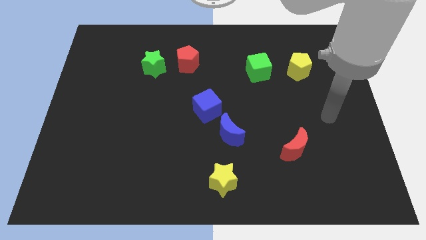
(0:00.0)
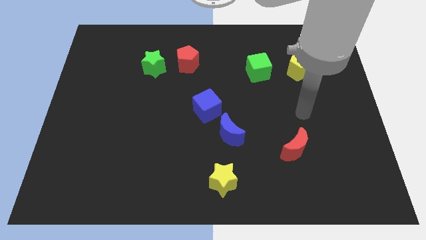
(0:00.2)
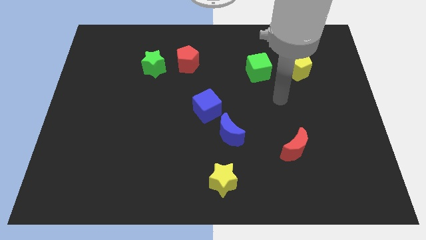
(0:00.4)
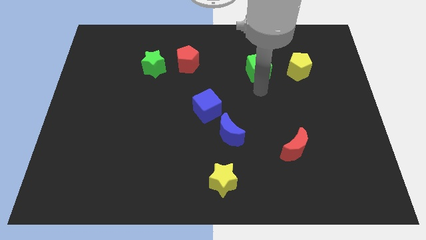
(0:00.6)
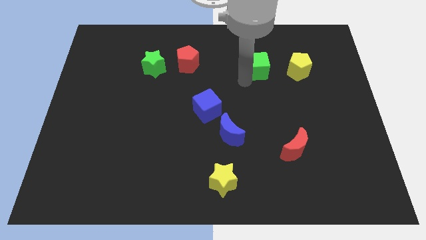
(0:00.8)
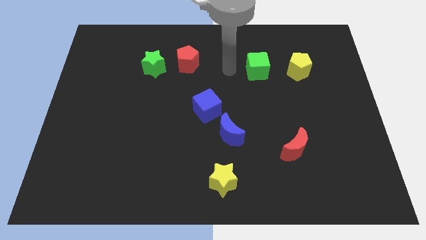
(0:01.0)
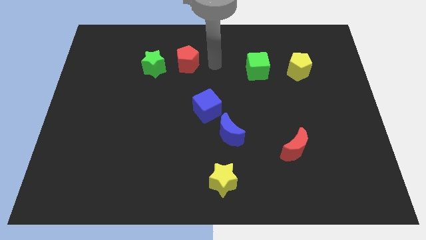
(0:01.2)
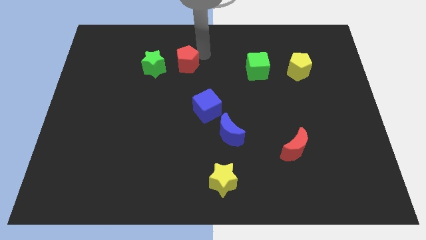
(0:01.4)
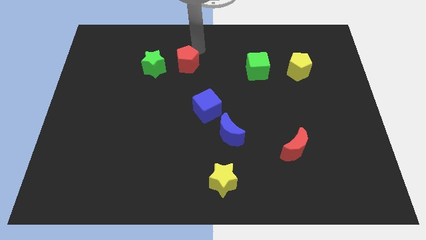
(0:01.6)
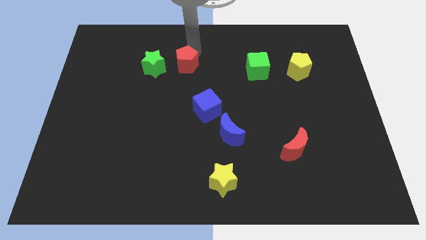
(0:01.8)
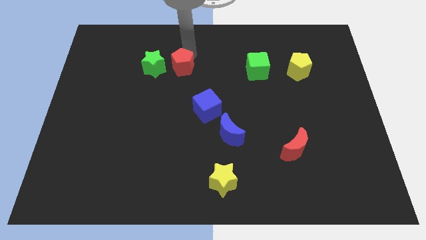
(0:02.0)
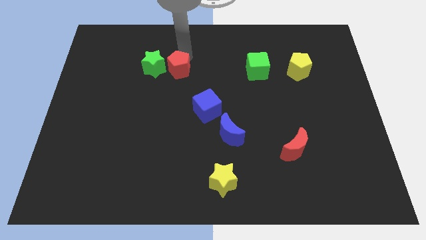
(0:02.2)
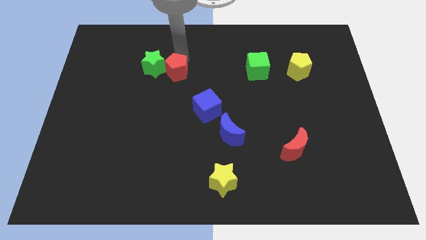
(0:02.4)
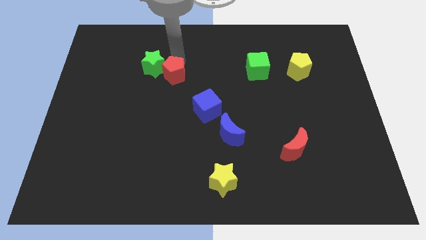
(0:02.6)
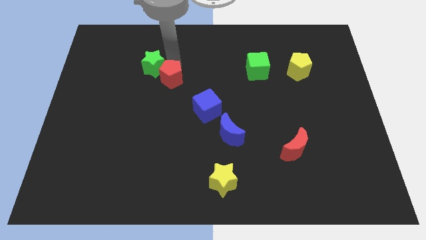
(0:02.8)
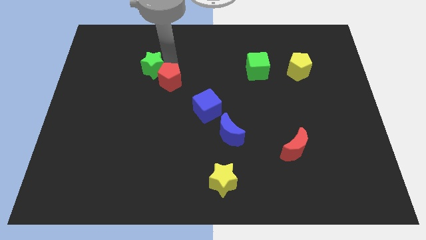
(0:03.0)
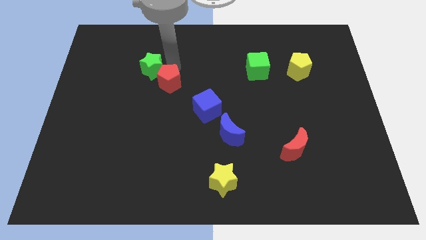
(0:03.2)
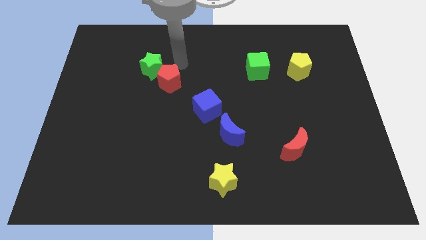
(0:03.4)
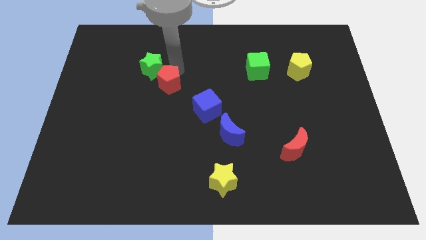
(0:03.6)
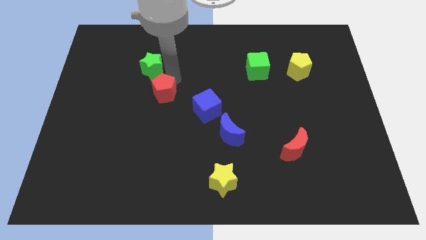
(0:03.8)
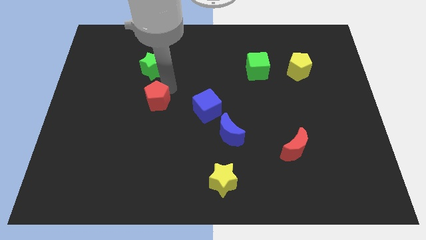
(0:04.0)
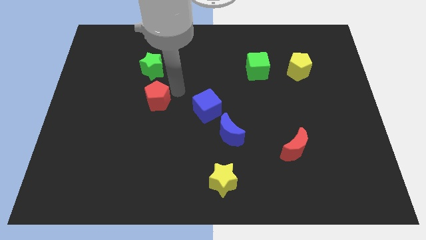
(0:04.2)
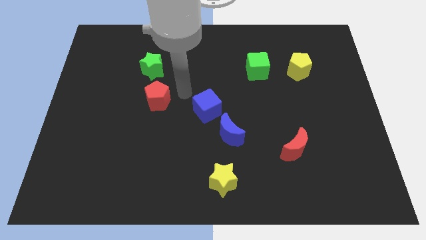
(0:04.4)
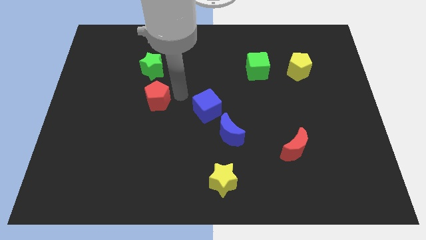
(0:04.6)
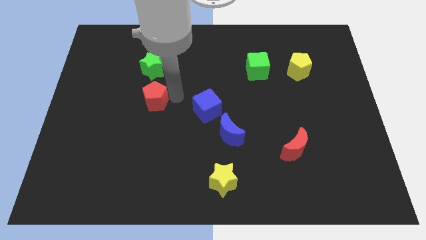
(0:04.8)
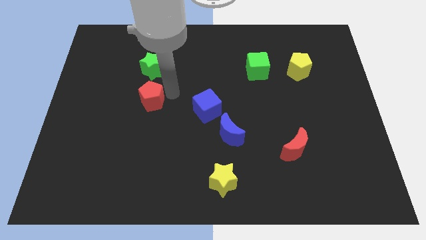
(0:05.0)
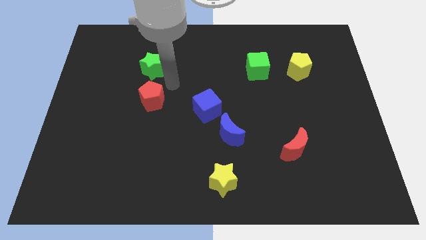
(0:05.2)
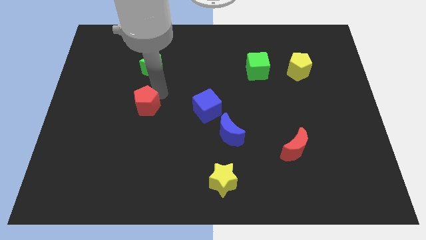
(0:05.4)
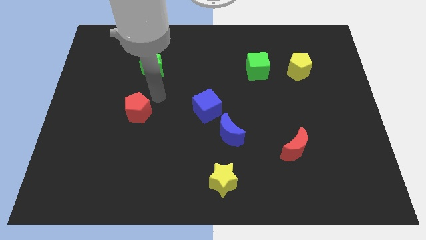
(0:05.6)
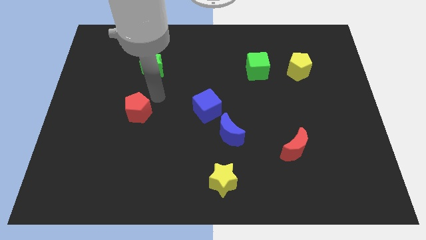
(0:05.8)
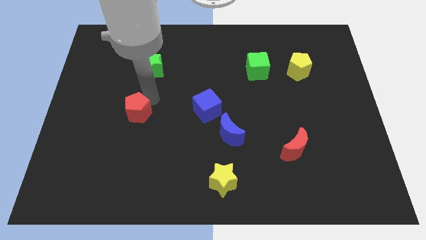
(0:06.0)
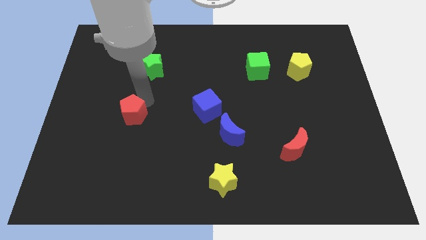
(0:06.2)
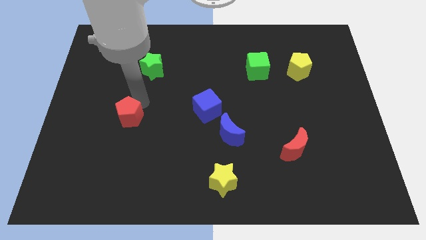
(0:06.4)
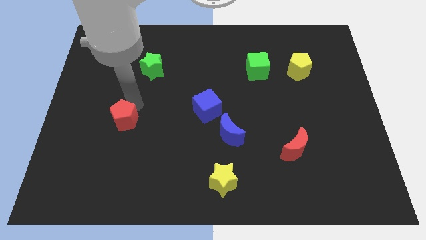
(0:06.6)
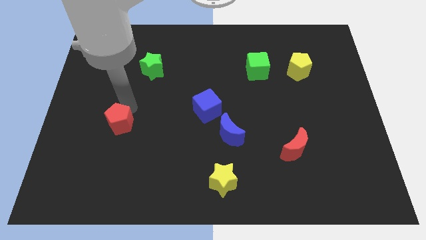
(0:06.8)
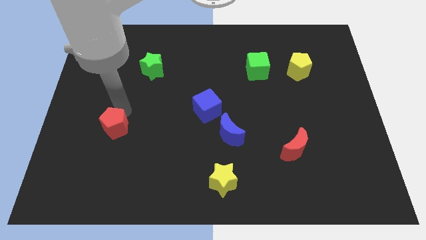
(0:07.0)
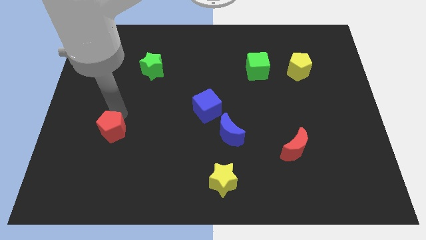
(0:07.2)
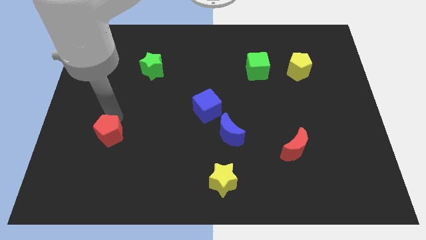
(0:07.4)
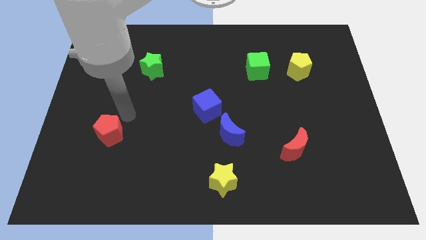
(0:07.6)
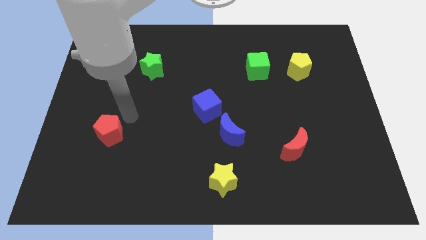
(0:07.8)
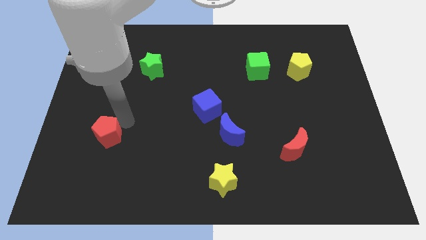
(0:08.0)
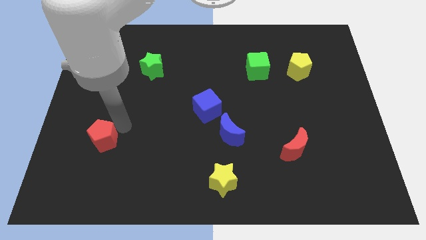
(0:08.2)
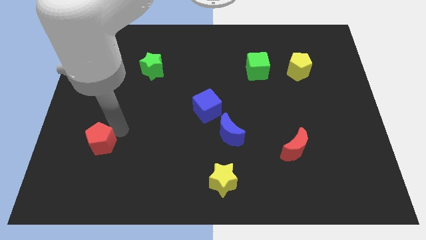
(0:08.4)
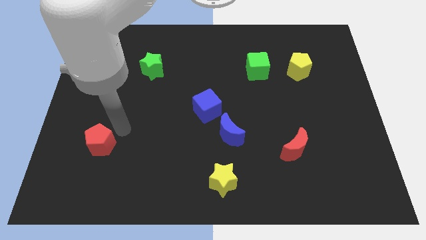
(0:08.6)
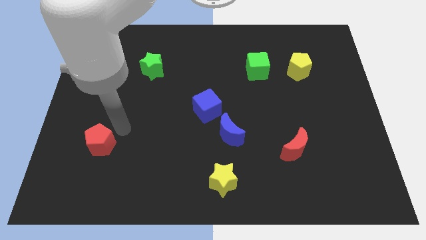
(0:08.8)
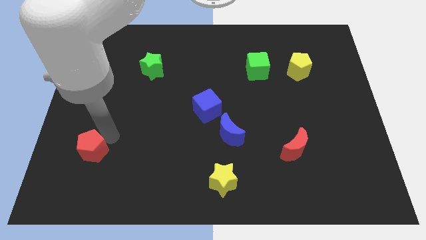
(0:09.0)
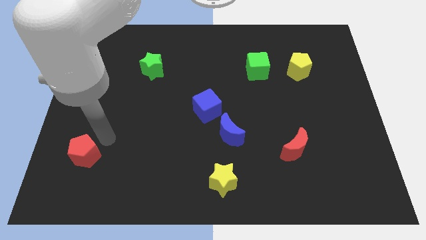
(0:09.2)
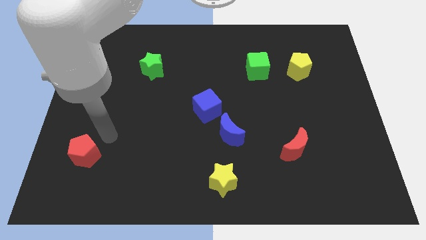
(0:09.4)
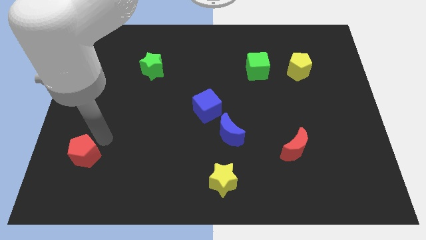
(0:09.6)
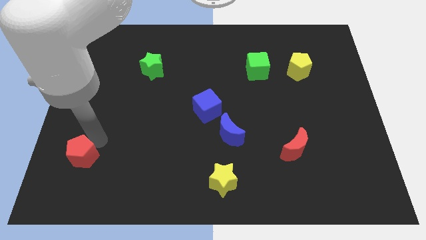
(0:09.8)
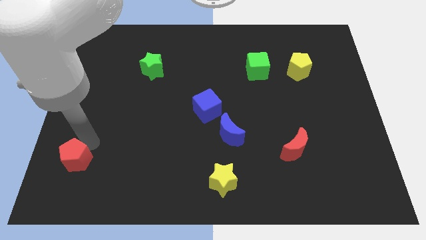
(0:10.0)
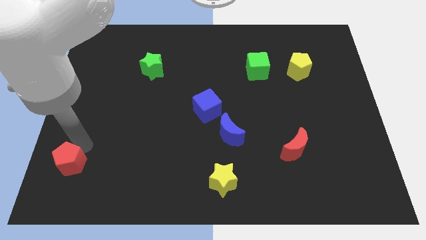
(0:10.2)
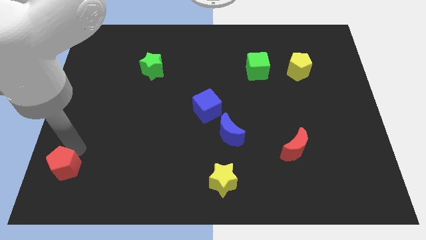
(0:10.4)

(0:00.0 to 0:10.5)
push the red pentagon to the bottom left

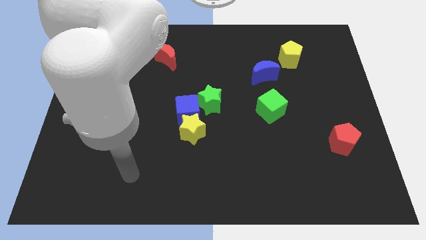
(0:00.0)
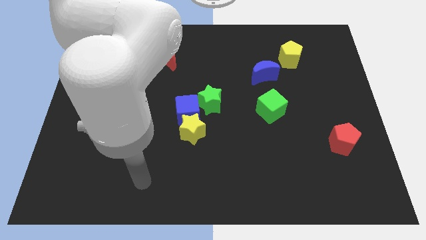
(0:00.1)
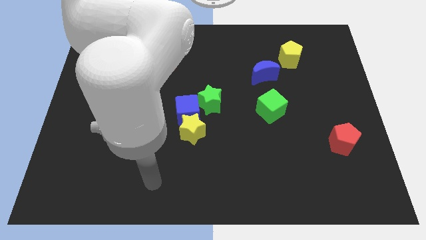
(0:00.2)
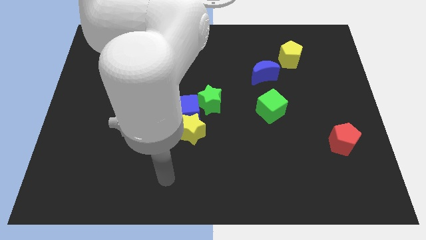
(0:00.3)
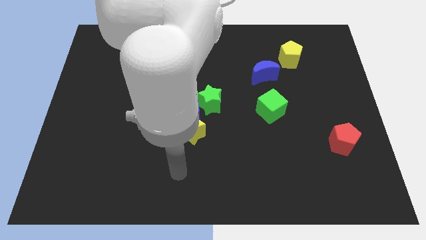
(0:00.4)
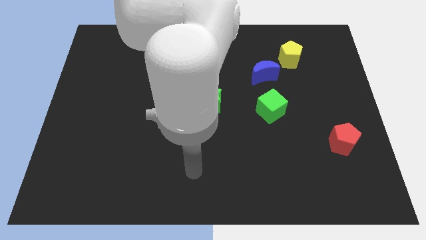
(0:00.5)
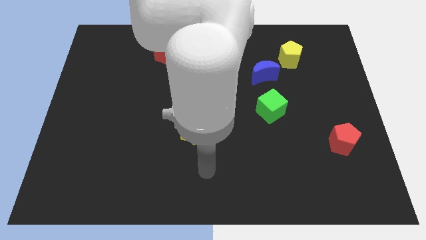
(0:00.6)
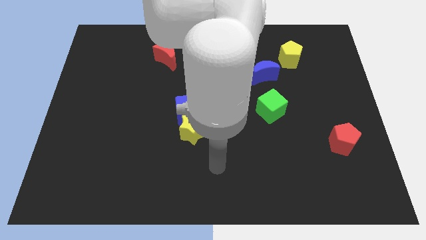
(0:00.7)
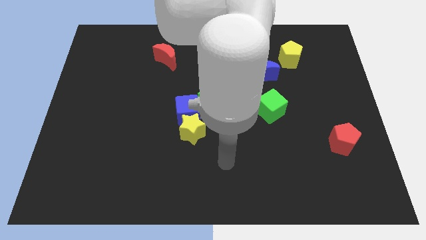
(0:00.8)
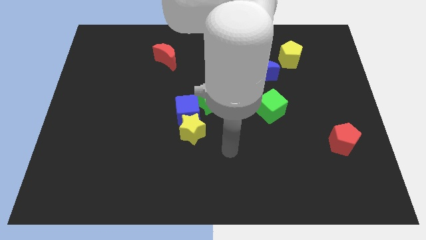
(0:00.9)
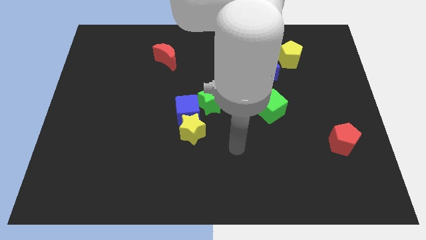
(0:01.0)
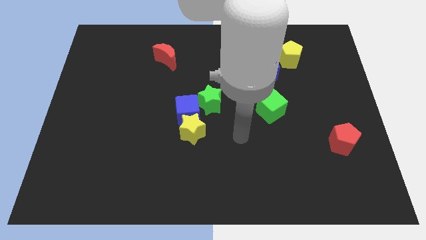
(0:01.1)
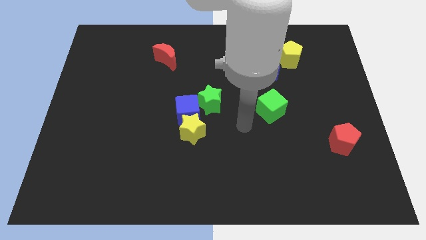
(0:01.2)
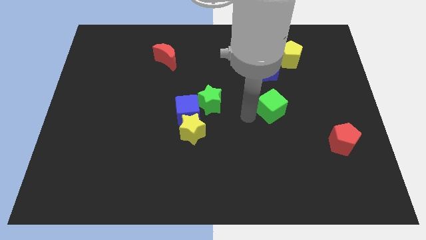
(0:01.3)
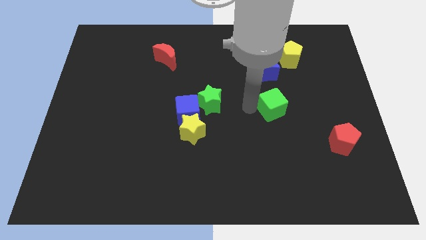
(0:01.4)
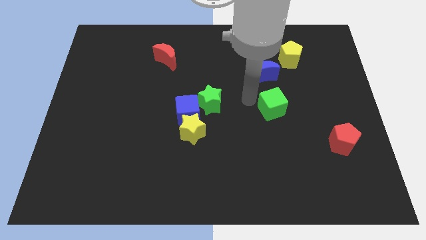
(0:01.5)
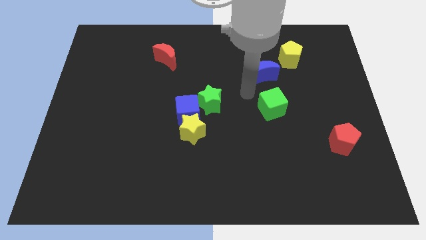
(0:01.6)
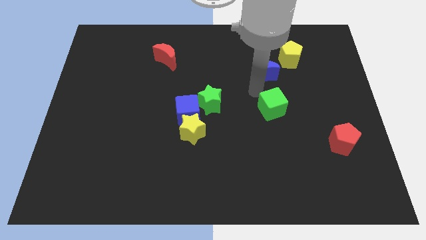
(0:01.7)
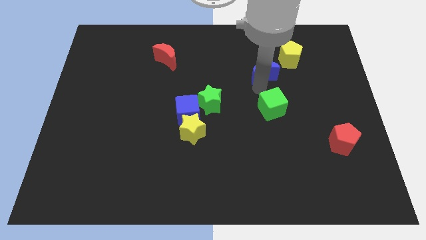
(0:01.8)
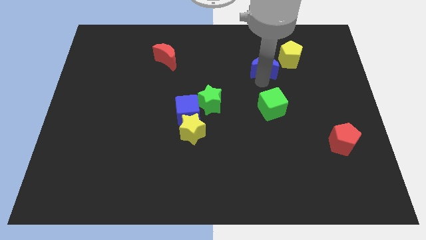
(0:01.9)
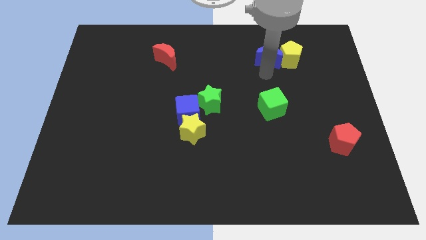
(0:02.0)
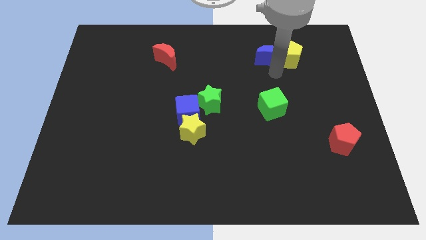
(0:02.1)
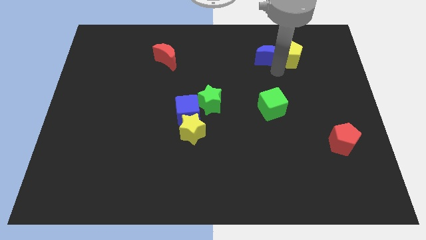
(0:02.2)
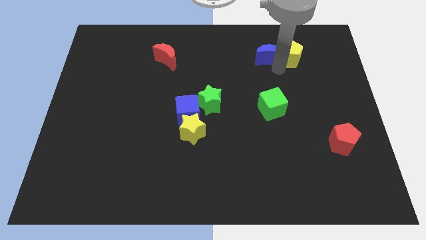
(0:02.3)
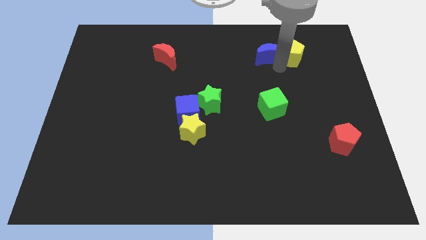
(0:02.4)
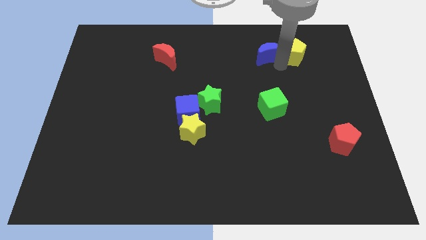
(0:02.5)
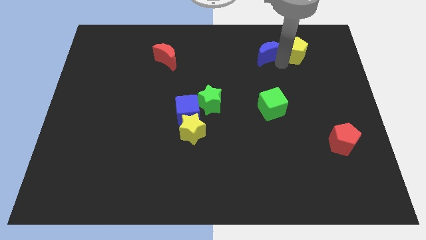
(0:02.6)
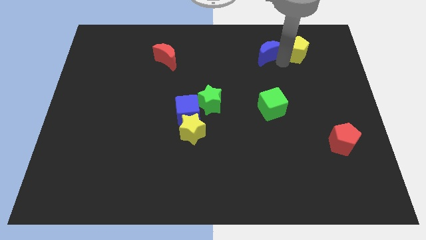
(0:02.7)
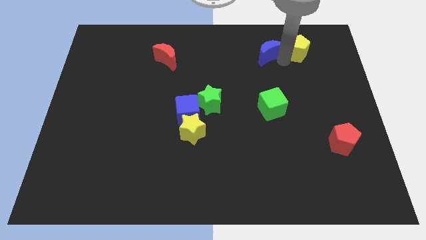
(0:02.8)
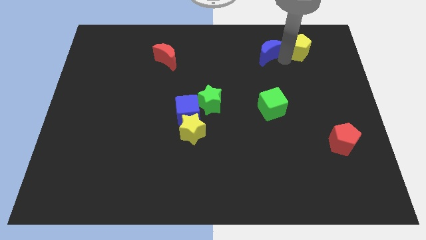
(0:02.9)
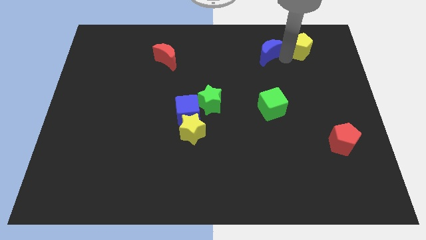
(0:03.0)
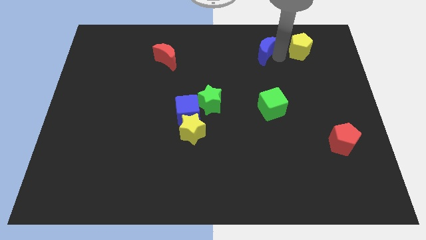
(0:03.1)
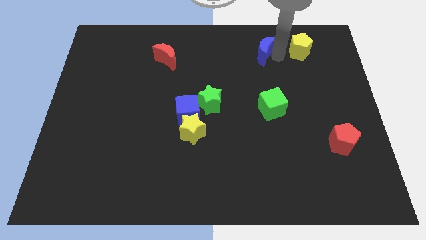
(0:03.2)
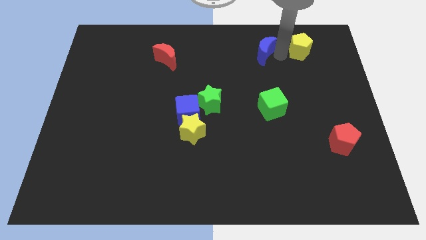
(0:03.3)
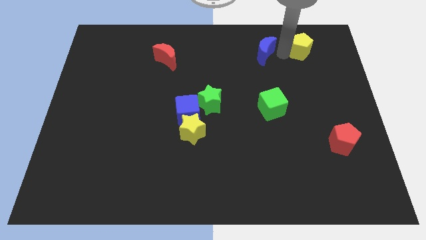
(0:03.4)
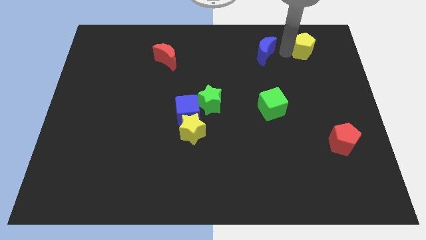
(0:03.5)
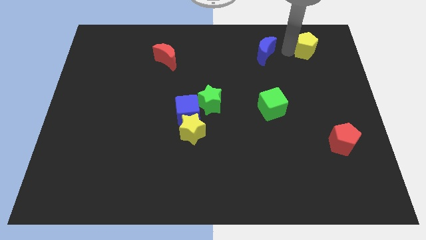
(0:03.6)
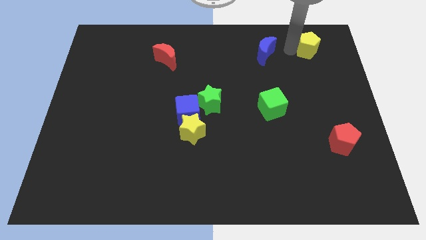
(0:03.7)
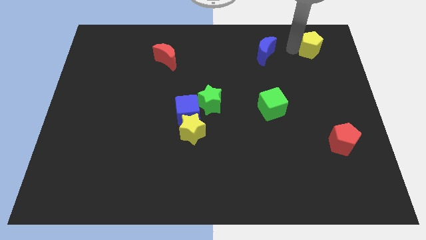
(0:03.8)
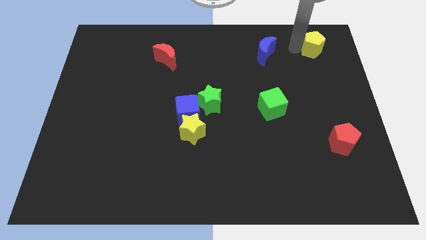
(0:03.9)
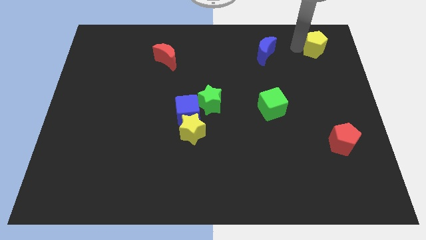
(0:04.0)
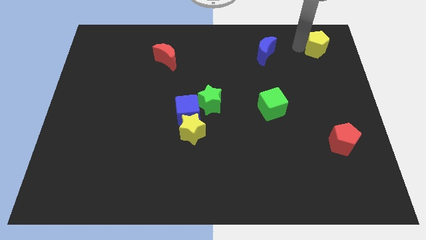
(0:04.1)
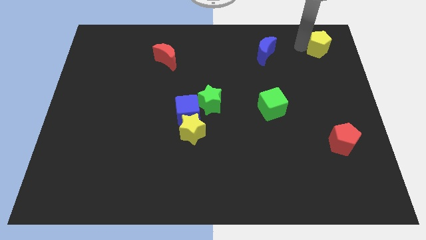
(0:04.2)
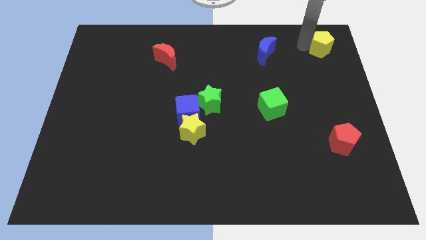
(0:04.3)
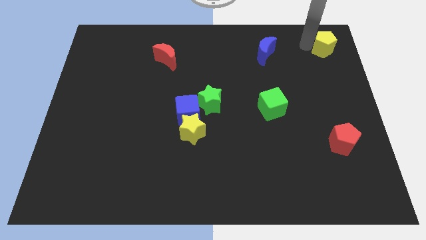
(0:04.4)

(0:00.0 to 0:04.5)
push the yellow pentagon to the top right corner
